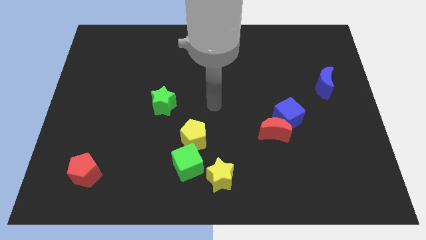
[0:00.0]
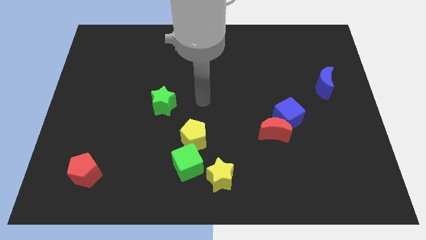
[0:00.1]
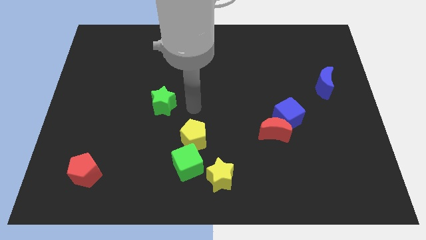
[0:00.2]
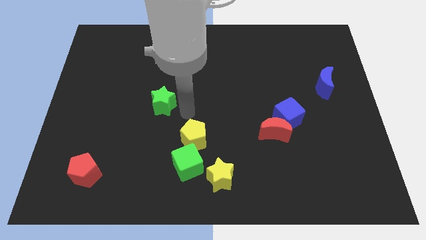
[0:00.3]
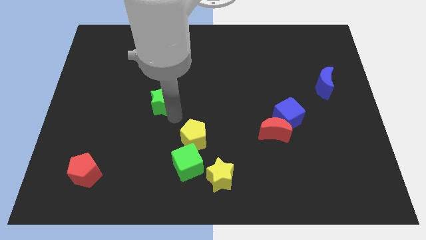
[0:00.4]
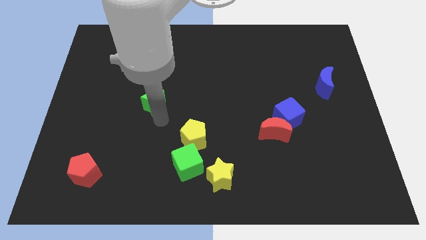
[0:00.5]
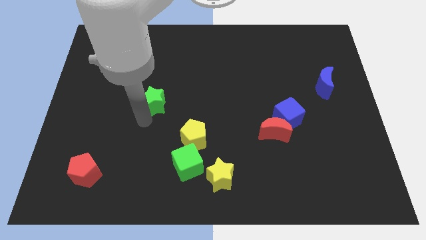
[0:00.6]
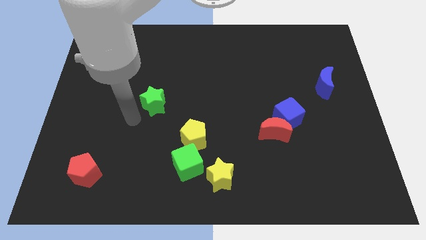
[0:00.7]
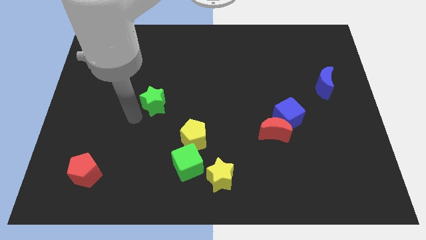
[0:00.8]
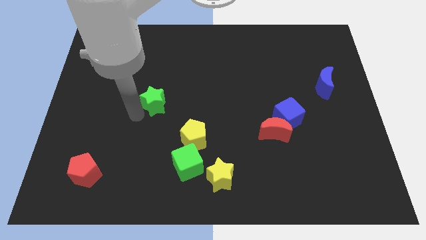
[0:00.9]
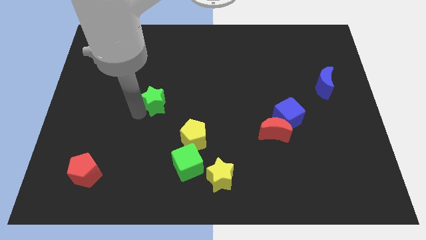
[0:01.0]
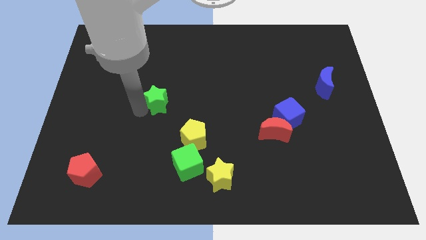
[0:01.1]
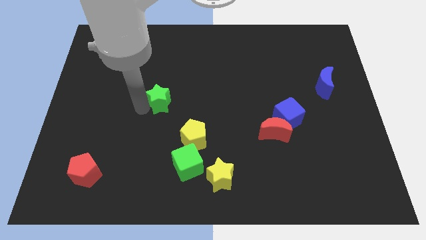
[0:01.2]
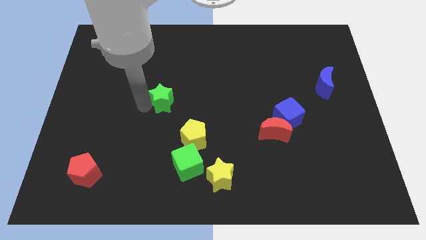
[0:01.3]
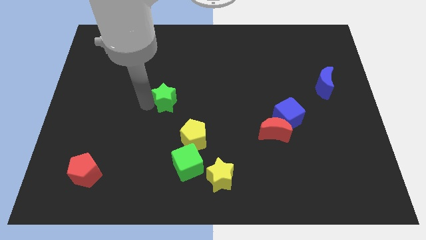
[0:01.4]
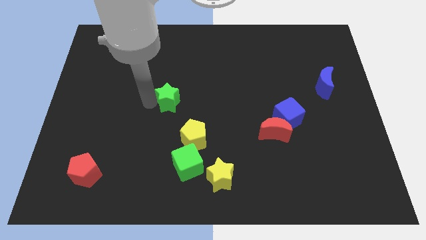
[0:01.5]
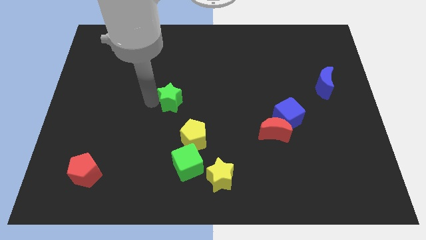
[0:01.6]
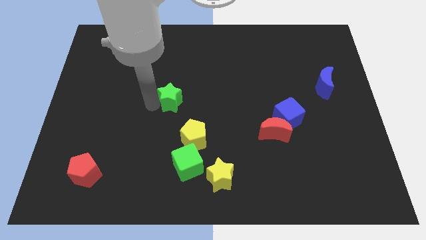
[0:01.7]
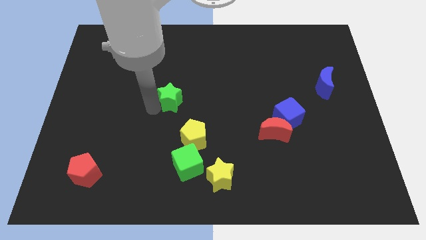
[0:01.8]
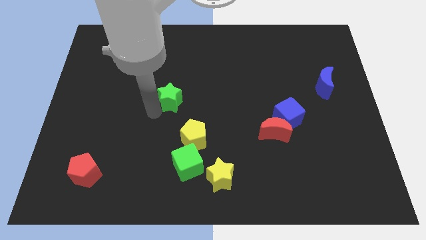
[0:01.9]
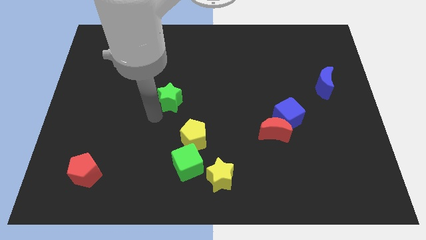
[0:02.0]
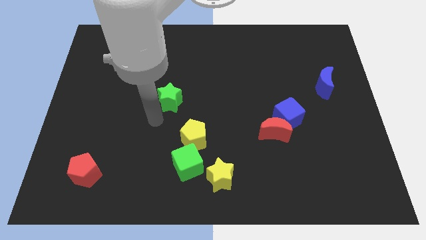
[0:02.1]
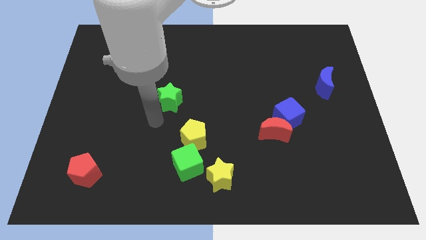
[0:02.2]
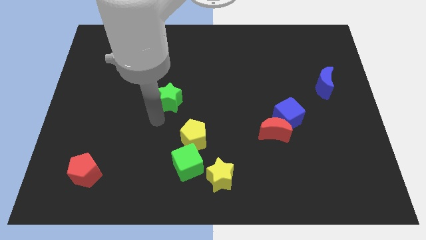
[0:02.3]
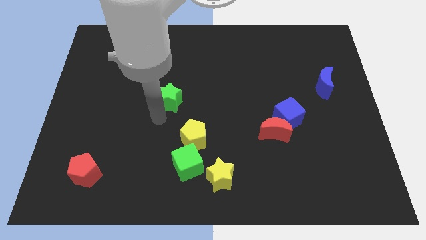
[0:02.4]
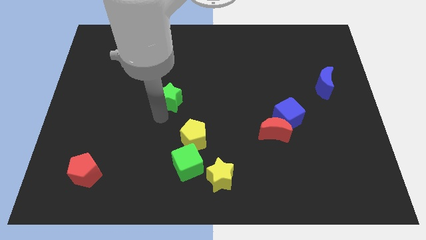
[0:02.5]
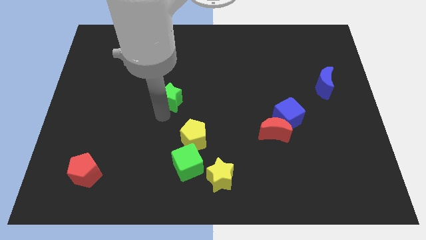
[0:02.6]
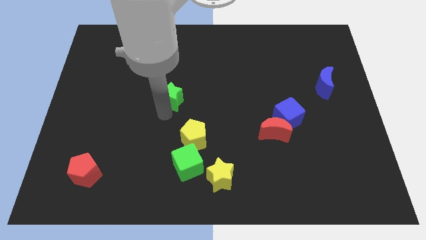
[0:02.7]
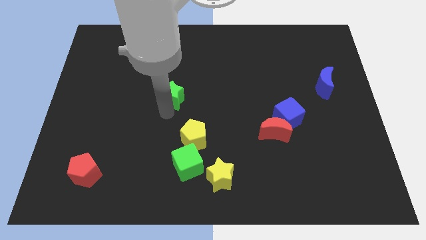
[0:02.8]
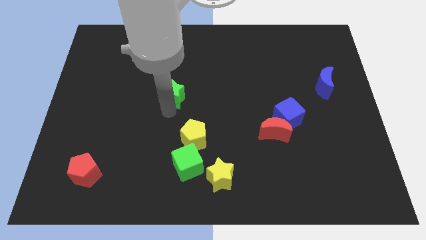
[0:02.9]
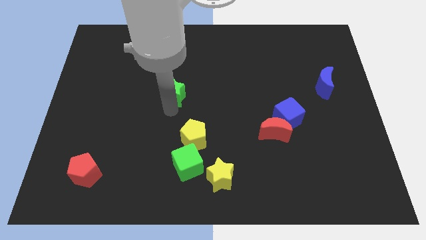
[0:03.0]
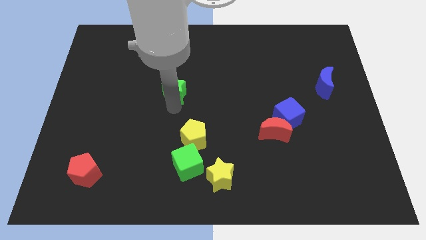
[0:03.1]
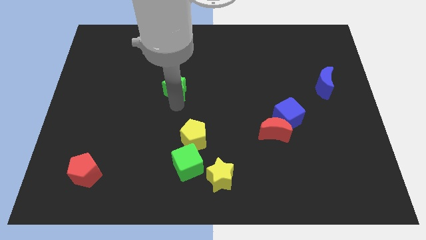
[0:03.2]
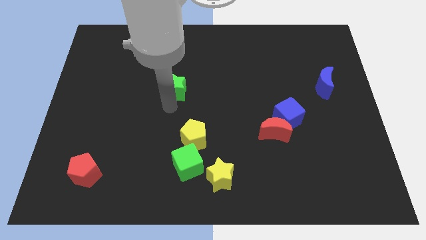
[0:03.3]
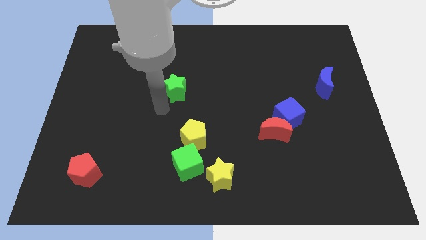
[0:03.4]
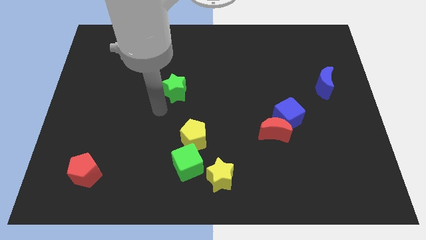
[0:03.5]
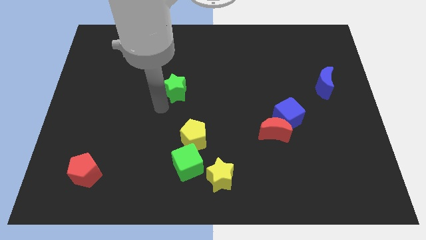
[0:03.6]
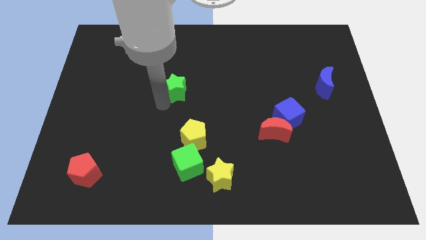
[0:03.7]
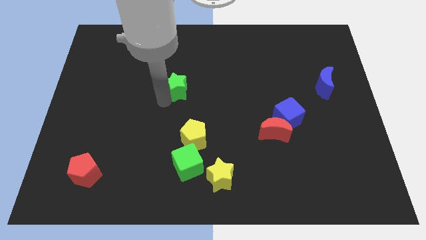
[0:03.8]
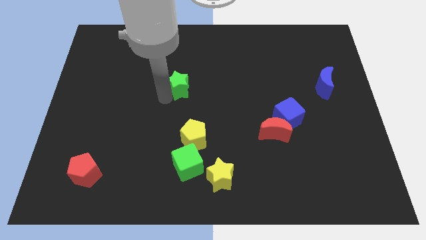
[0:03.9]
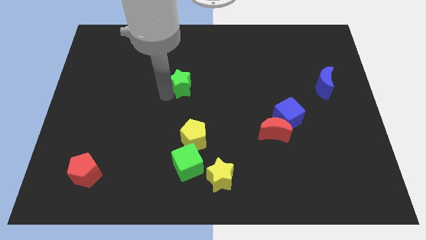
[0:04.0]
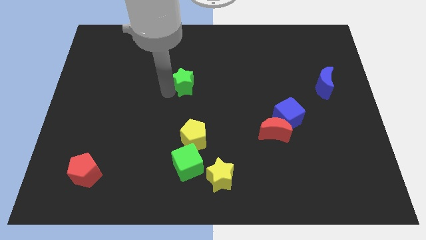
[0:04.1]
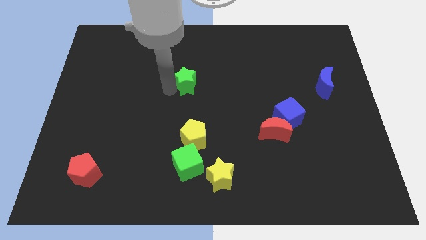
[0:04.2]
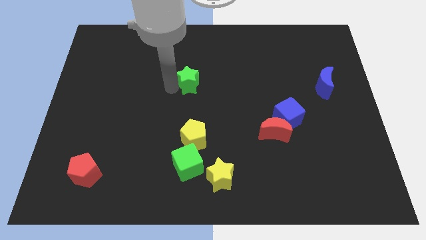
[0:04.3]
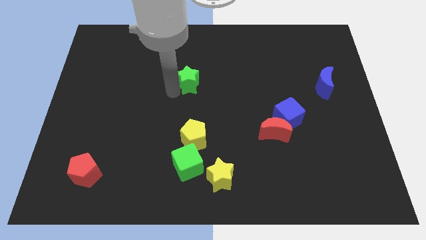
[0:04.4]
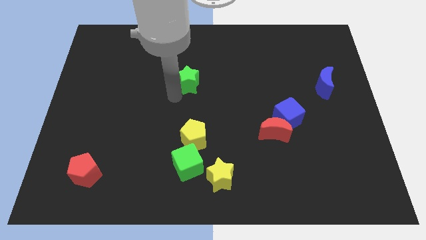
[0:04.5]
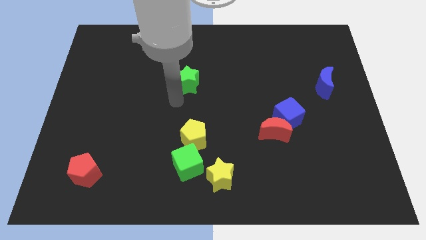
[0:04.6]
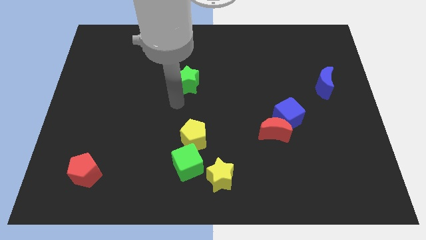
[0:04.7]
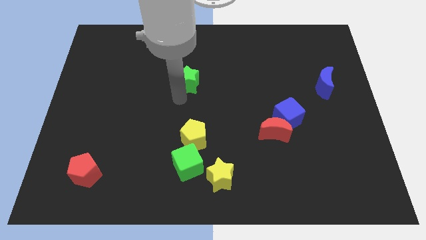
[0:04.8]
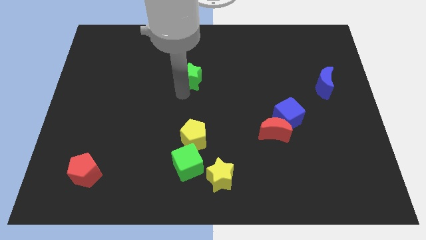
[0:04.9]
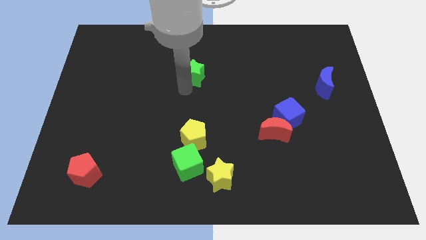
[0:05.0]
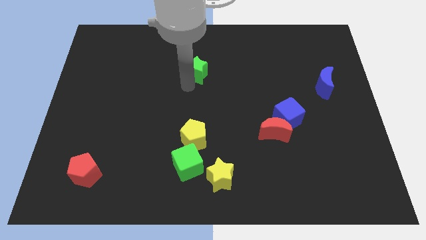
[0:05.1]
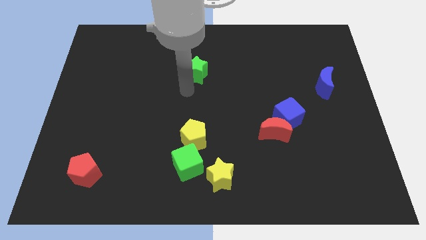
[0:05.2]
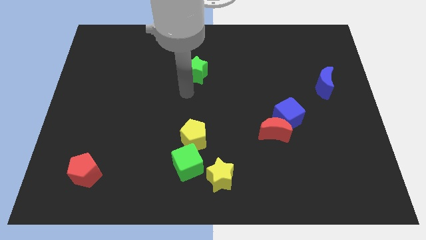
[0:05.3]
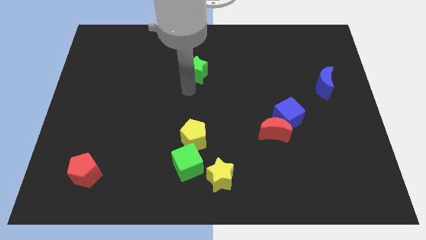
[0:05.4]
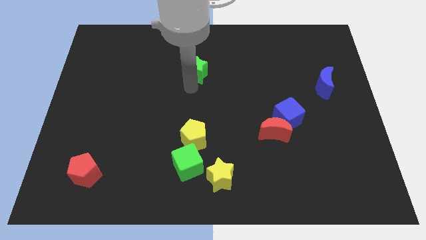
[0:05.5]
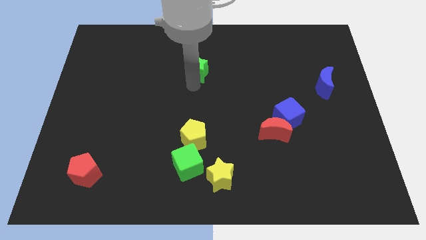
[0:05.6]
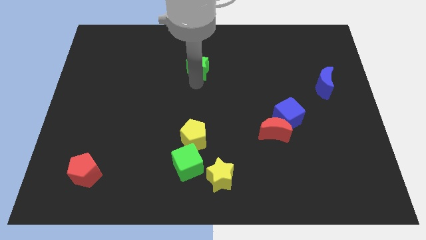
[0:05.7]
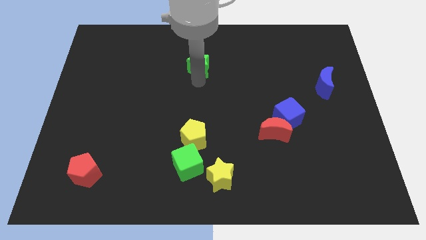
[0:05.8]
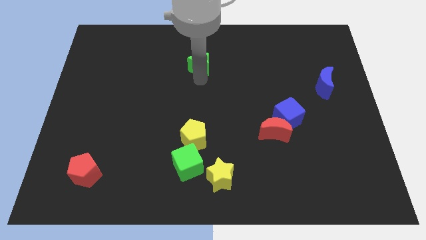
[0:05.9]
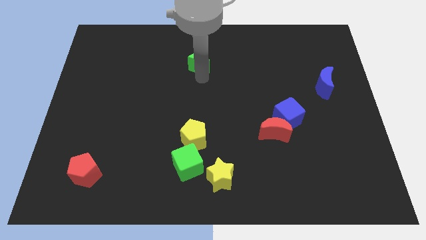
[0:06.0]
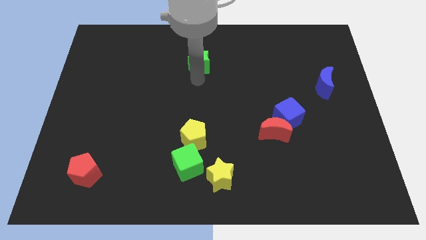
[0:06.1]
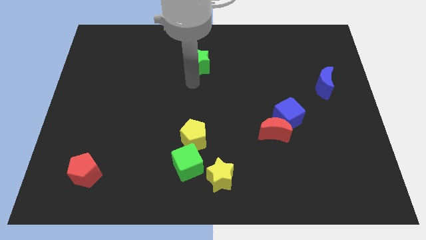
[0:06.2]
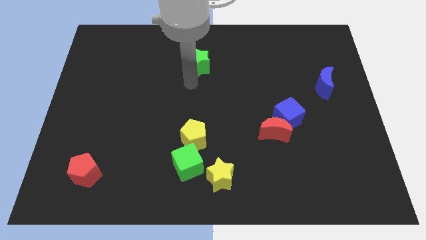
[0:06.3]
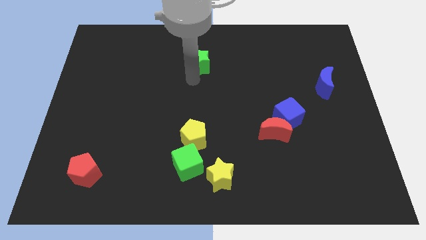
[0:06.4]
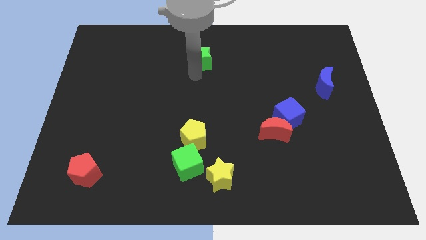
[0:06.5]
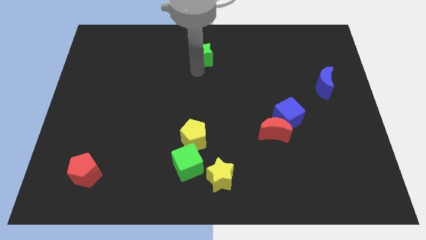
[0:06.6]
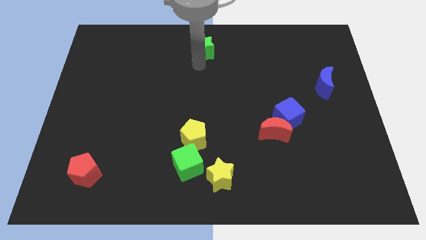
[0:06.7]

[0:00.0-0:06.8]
slide the green star to the towards your base

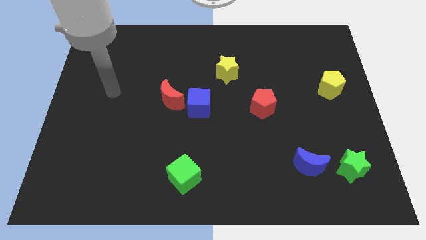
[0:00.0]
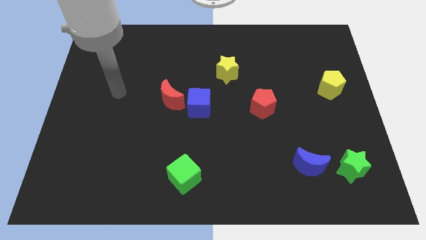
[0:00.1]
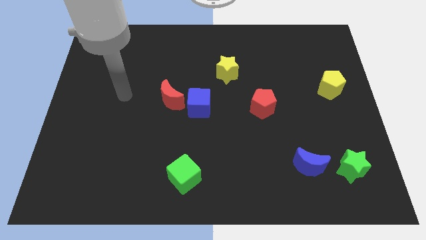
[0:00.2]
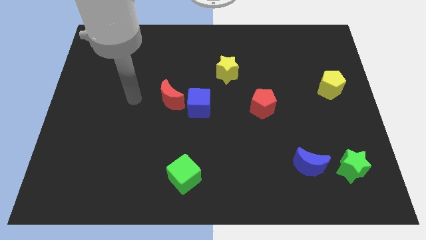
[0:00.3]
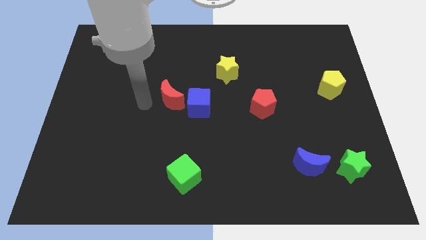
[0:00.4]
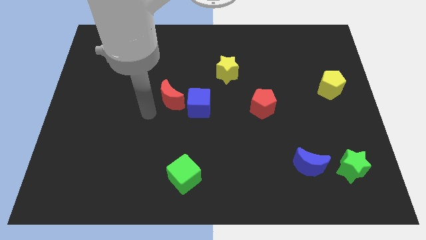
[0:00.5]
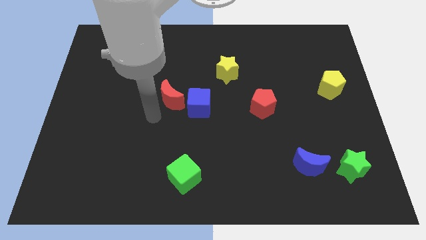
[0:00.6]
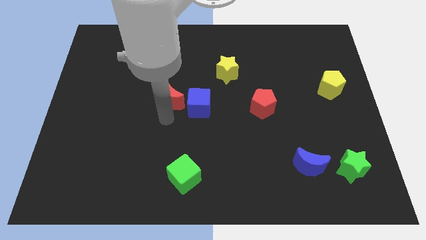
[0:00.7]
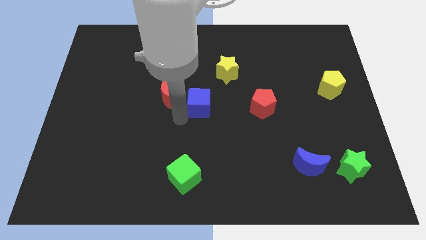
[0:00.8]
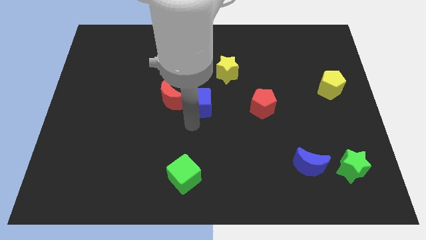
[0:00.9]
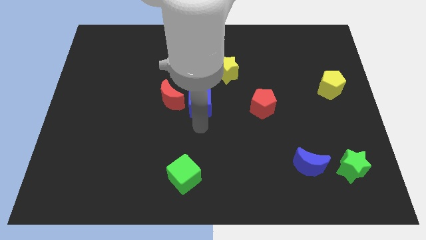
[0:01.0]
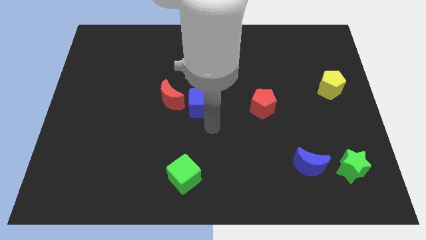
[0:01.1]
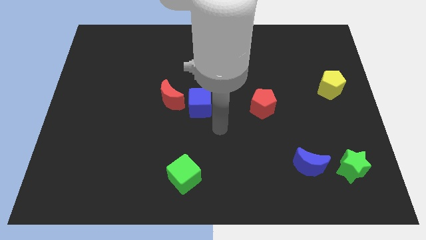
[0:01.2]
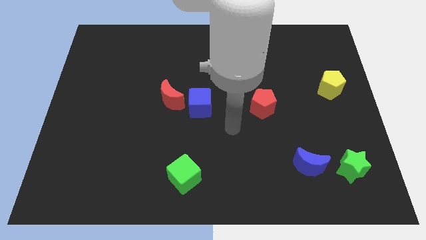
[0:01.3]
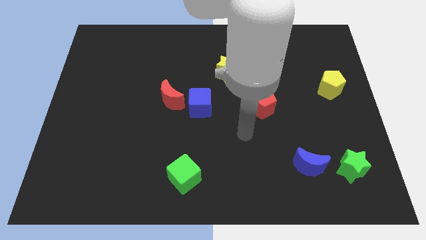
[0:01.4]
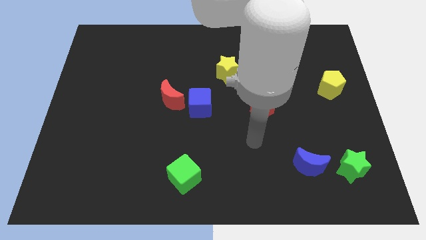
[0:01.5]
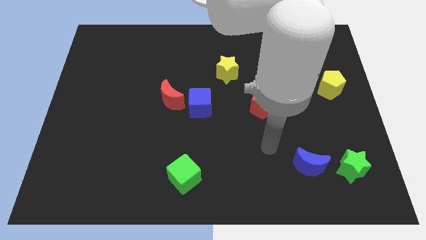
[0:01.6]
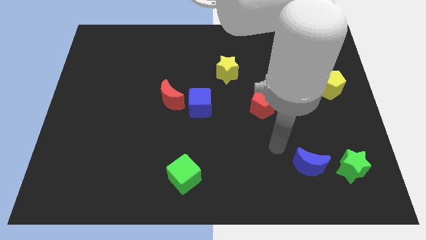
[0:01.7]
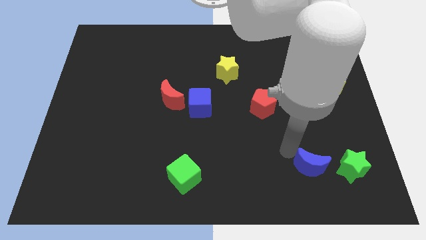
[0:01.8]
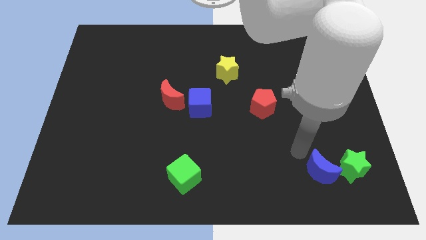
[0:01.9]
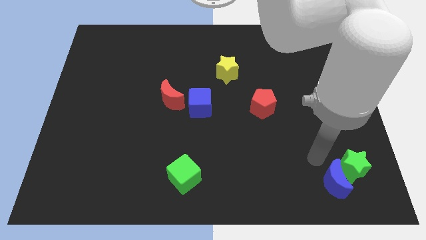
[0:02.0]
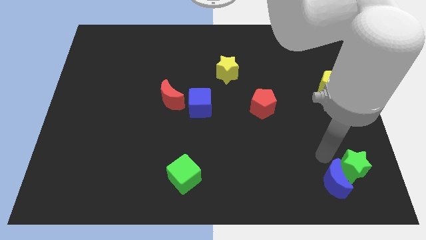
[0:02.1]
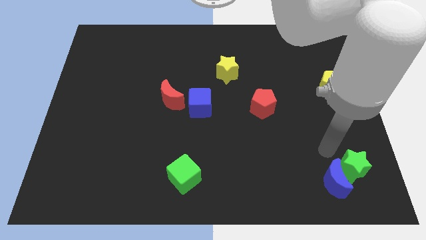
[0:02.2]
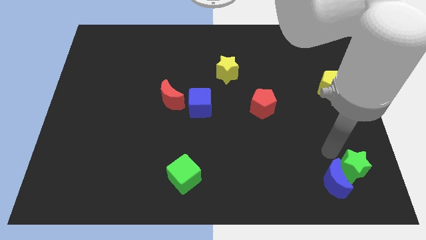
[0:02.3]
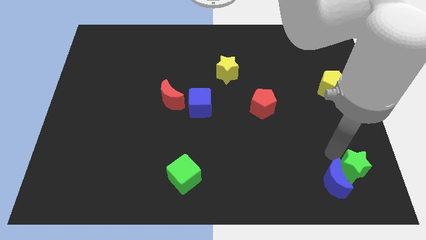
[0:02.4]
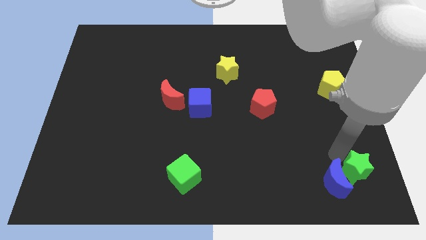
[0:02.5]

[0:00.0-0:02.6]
put the green star to the bottom right of the board
